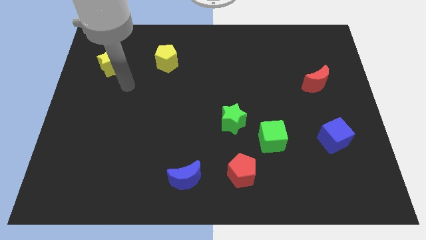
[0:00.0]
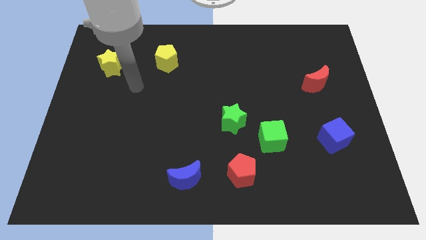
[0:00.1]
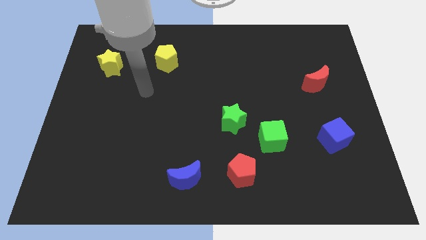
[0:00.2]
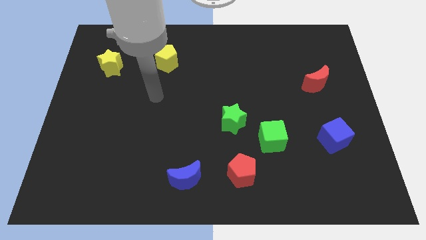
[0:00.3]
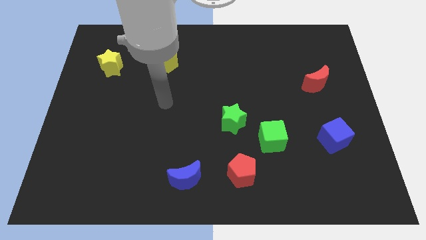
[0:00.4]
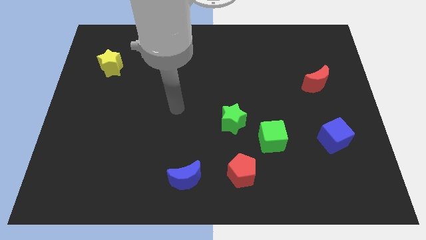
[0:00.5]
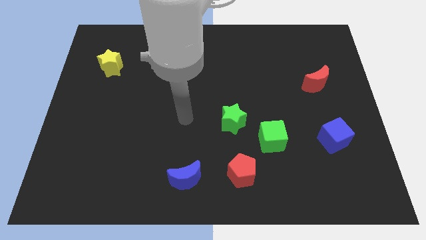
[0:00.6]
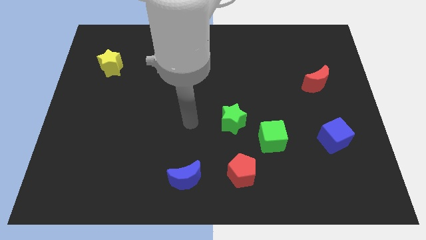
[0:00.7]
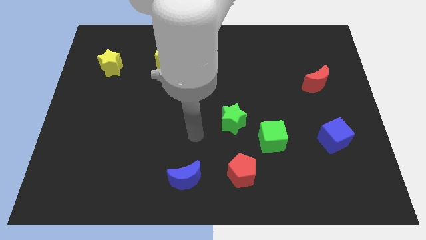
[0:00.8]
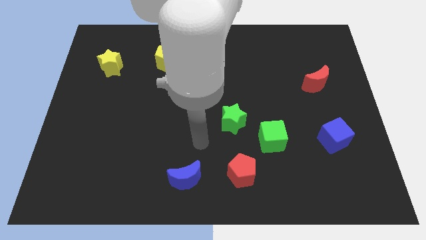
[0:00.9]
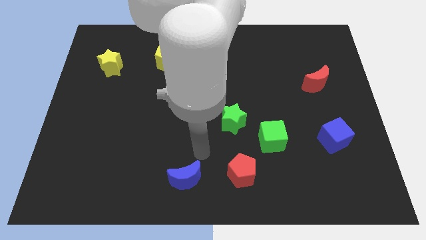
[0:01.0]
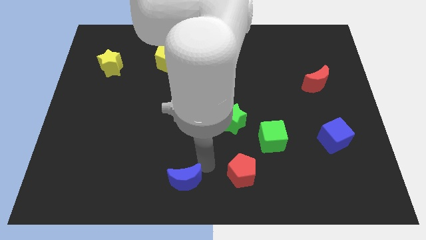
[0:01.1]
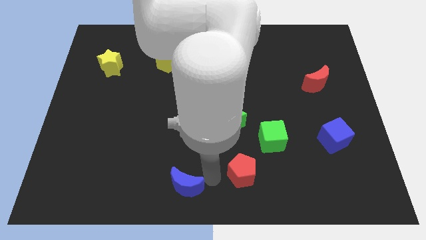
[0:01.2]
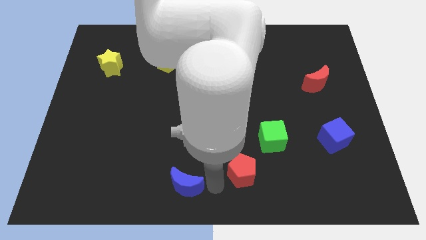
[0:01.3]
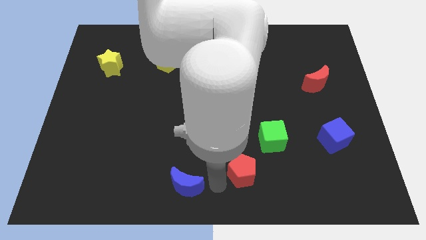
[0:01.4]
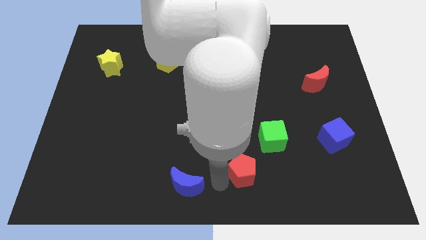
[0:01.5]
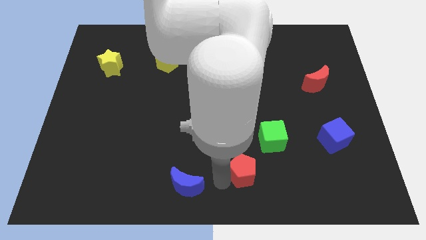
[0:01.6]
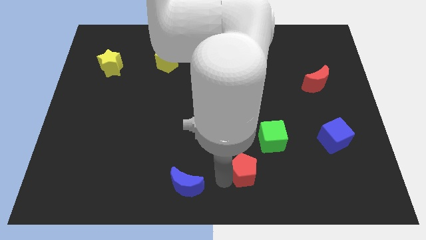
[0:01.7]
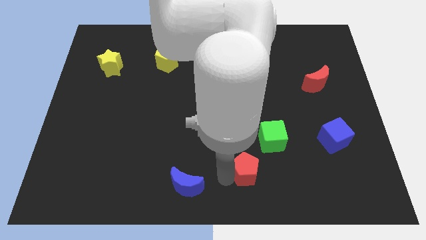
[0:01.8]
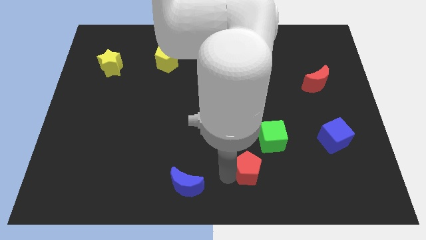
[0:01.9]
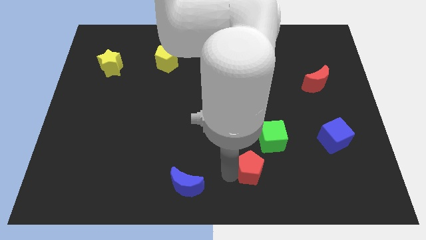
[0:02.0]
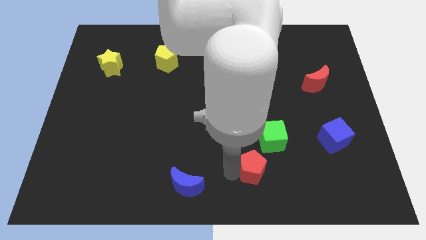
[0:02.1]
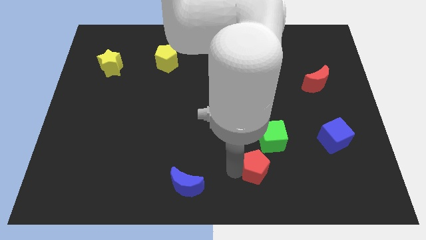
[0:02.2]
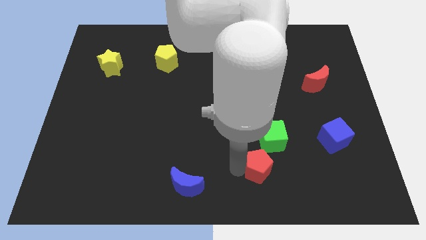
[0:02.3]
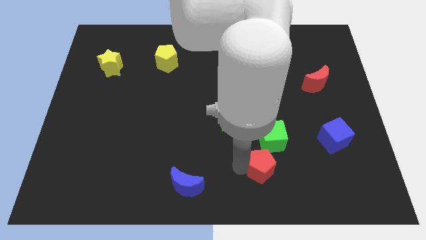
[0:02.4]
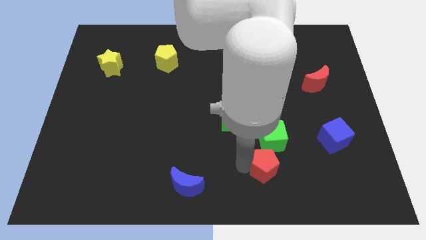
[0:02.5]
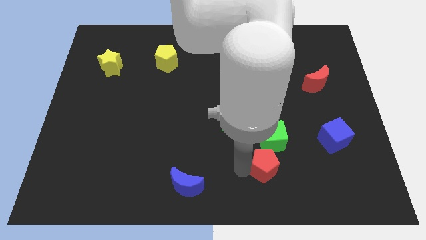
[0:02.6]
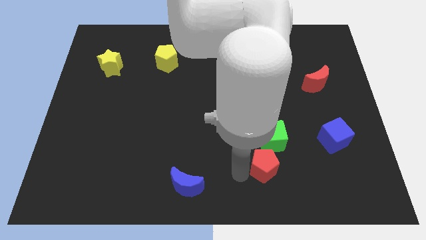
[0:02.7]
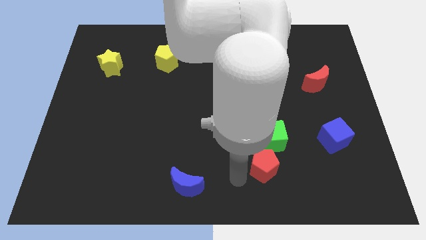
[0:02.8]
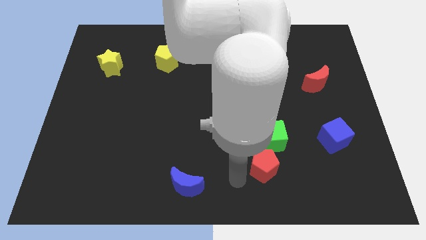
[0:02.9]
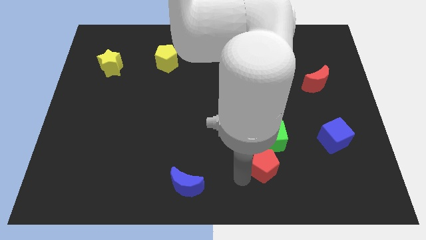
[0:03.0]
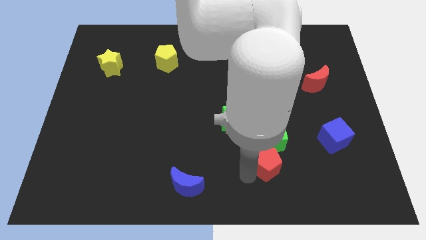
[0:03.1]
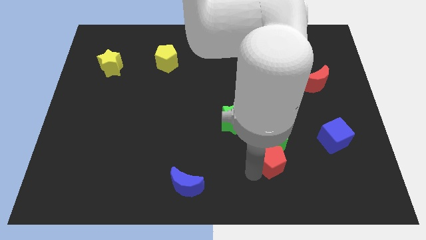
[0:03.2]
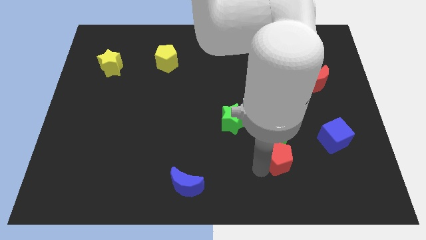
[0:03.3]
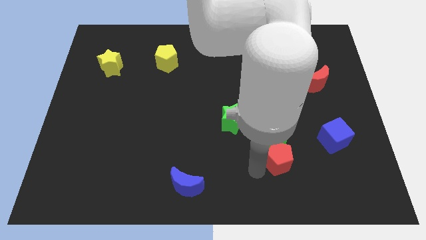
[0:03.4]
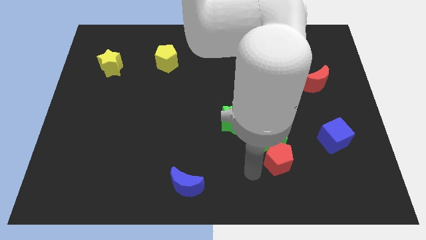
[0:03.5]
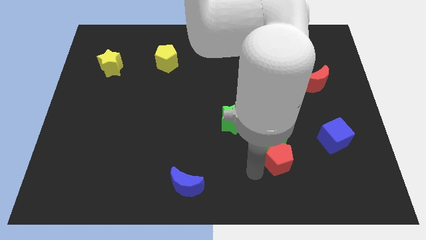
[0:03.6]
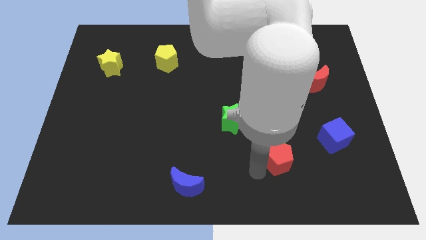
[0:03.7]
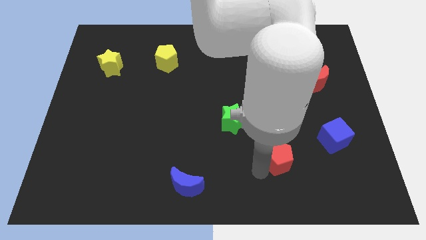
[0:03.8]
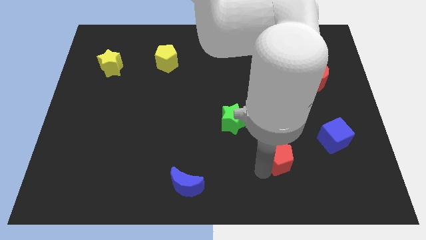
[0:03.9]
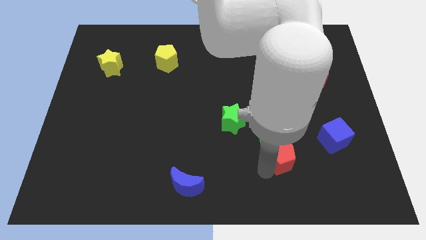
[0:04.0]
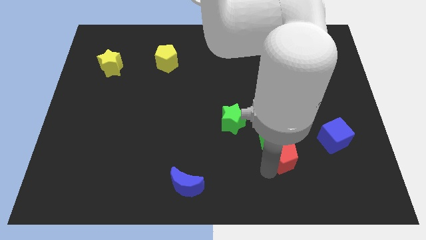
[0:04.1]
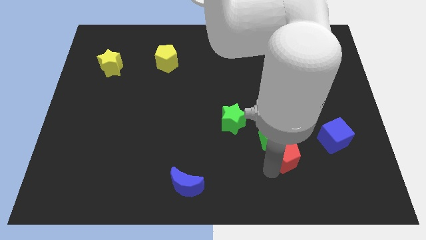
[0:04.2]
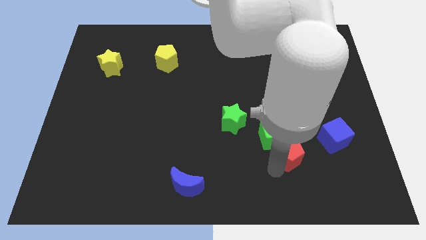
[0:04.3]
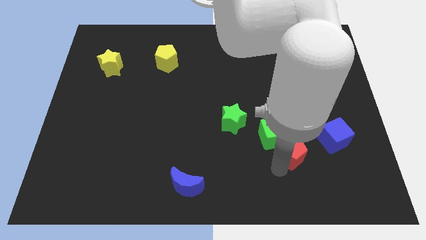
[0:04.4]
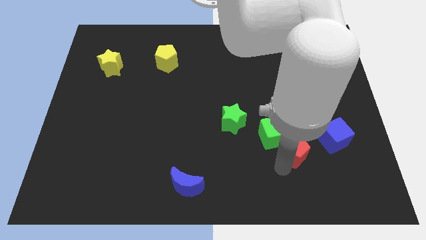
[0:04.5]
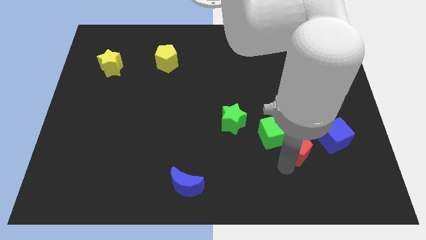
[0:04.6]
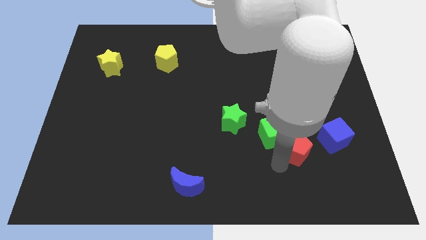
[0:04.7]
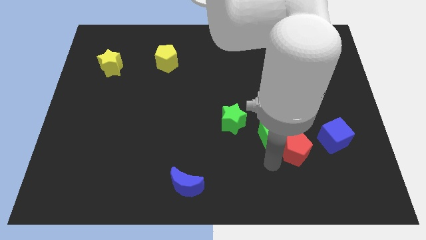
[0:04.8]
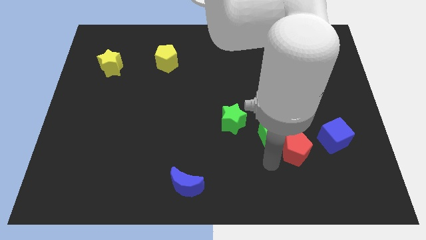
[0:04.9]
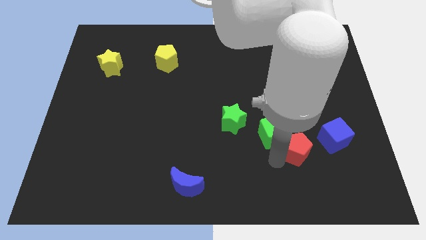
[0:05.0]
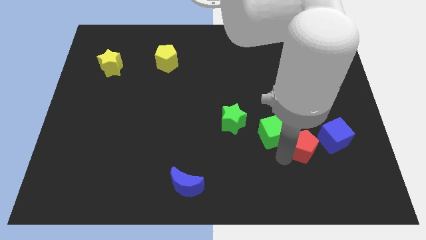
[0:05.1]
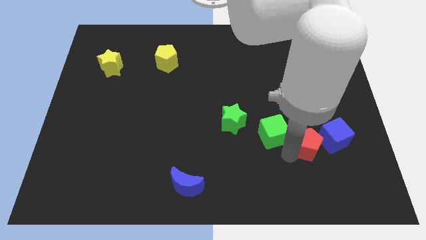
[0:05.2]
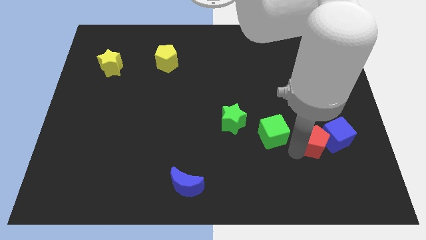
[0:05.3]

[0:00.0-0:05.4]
slide the red pentagon next to the blue cube
